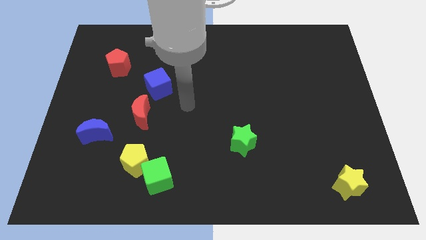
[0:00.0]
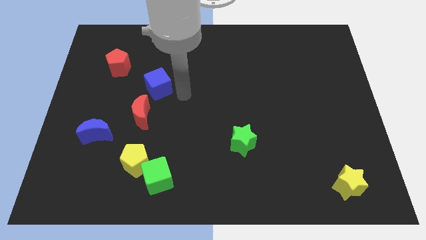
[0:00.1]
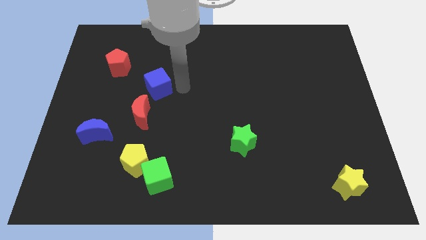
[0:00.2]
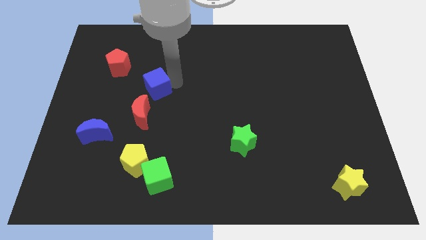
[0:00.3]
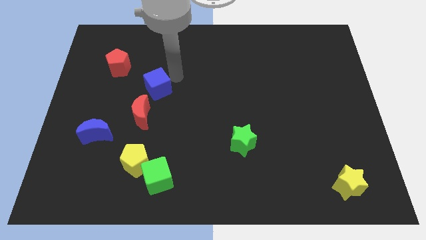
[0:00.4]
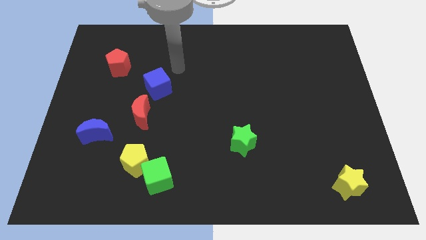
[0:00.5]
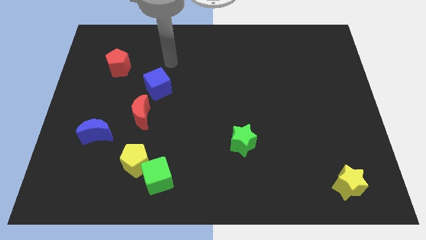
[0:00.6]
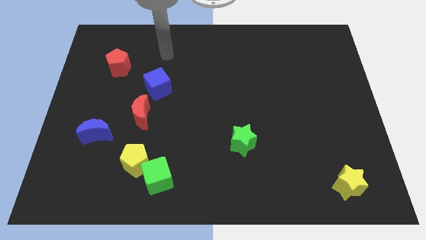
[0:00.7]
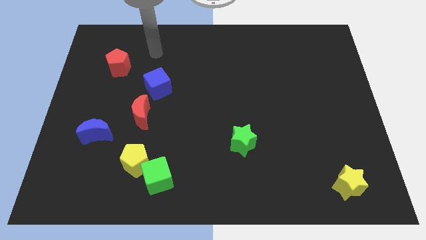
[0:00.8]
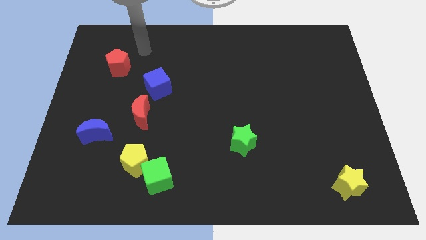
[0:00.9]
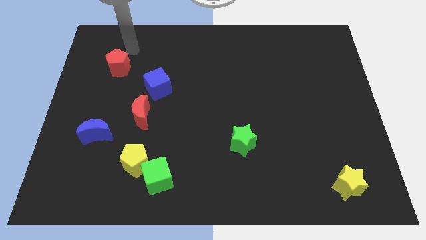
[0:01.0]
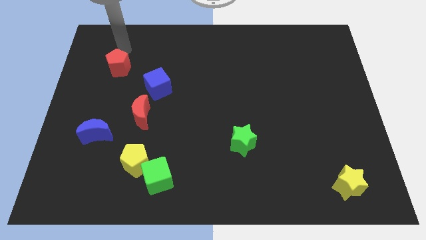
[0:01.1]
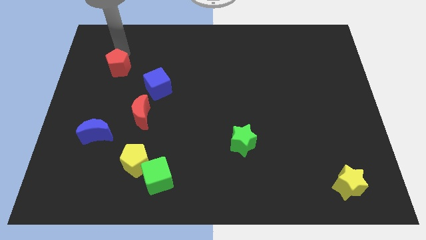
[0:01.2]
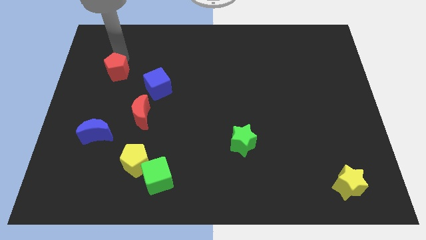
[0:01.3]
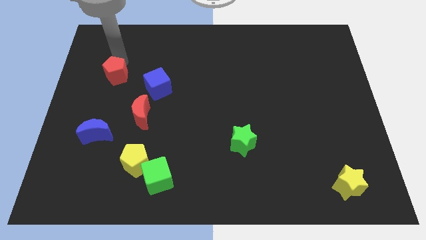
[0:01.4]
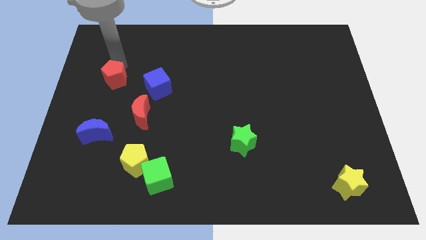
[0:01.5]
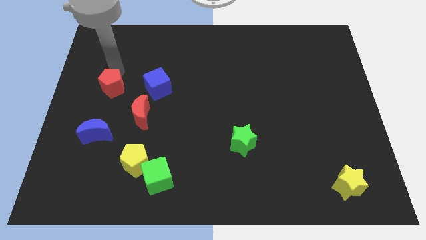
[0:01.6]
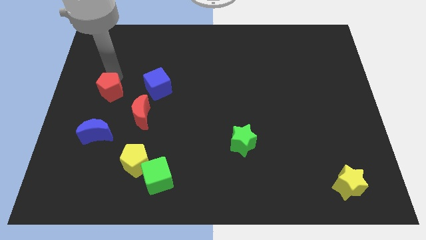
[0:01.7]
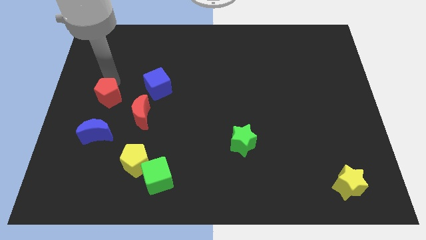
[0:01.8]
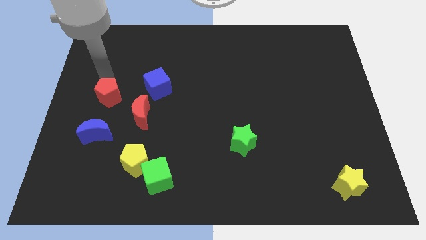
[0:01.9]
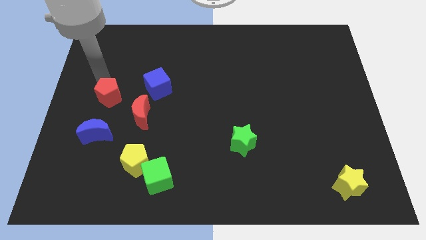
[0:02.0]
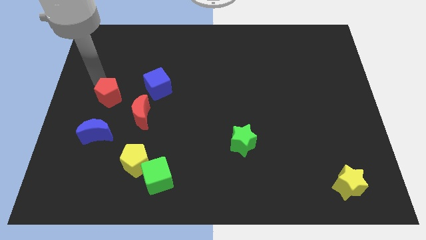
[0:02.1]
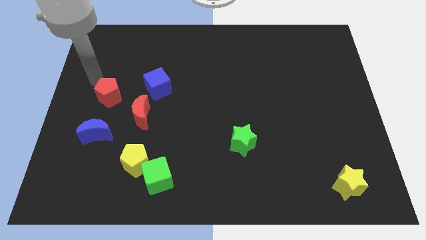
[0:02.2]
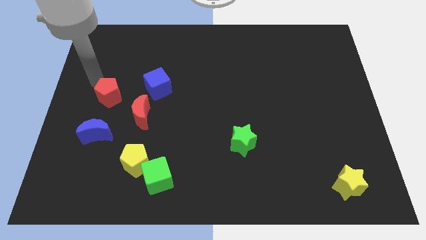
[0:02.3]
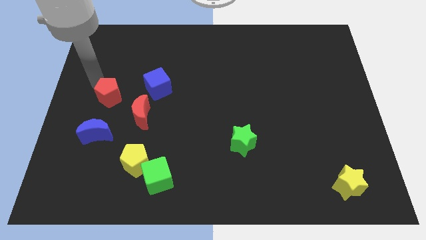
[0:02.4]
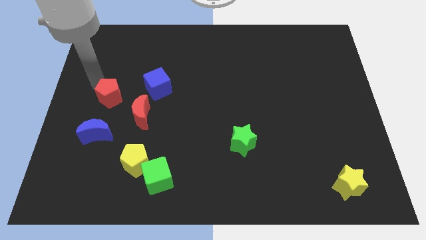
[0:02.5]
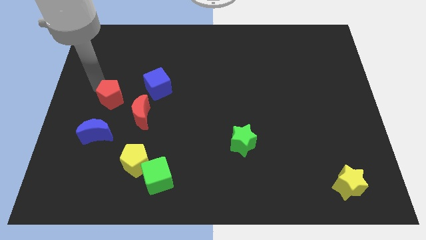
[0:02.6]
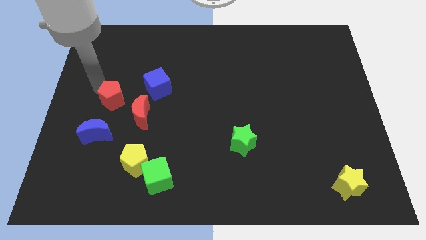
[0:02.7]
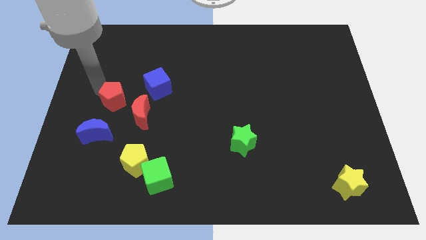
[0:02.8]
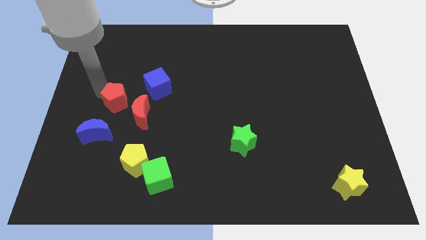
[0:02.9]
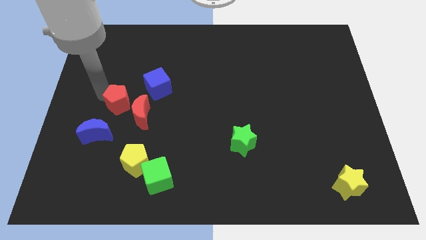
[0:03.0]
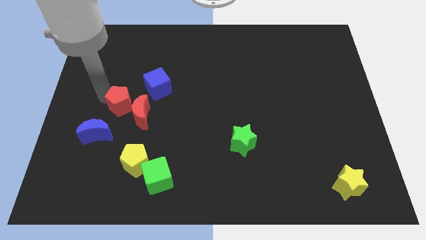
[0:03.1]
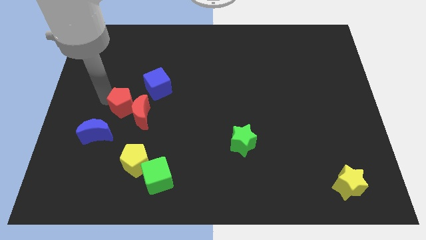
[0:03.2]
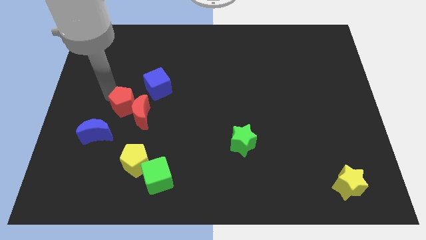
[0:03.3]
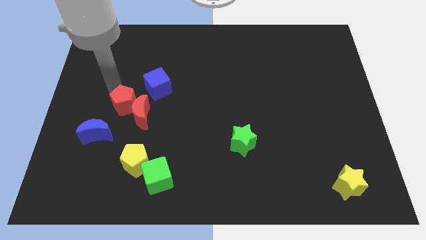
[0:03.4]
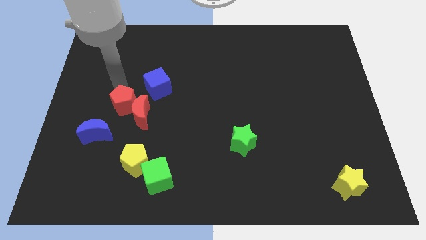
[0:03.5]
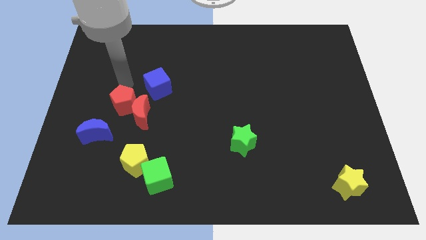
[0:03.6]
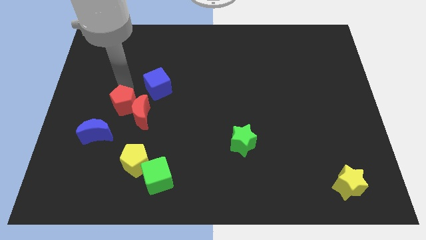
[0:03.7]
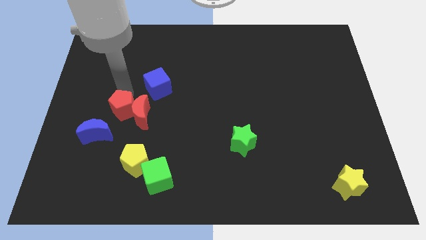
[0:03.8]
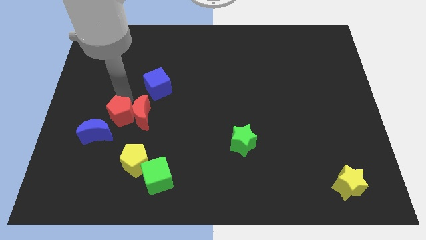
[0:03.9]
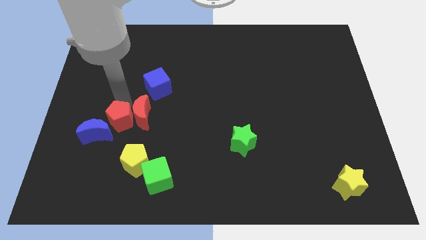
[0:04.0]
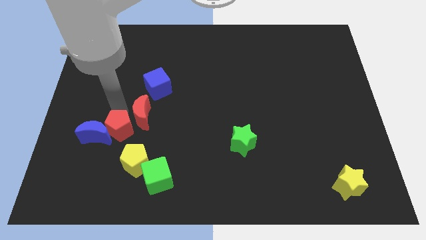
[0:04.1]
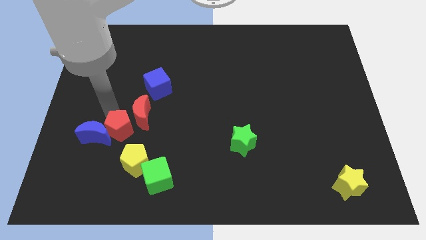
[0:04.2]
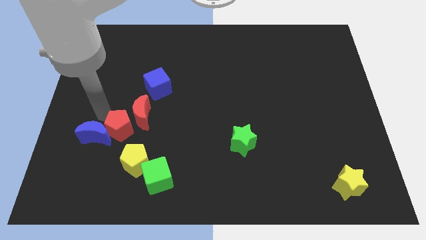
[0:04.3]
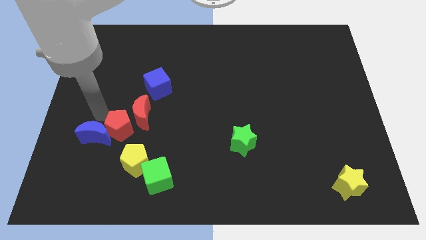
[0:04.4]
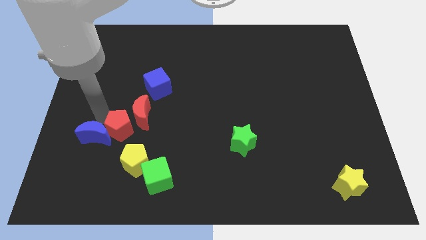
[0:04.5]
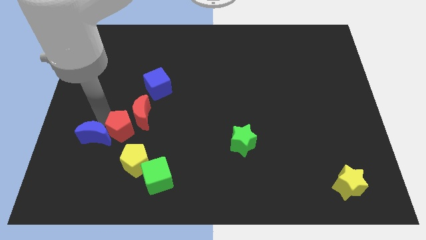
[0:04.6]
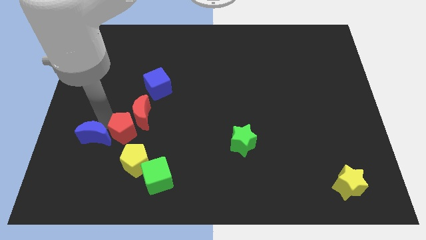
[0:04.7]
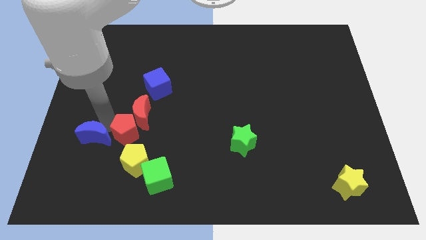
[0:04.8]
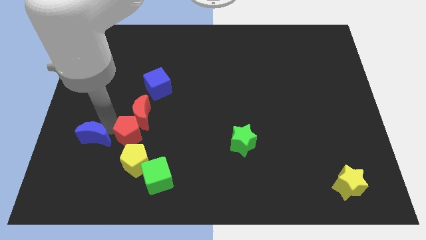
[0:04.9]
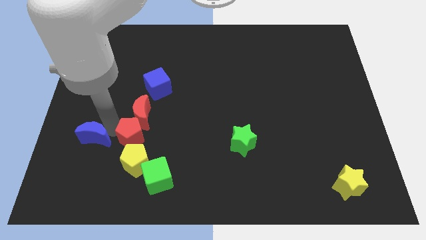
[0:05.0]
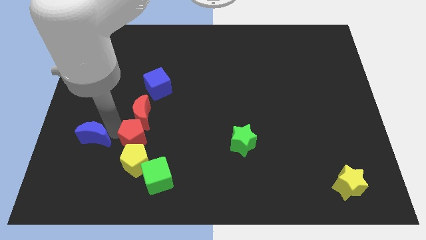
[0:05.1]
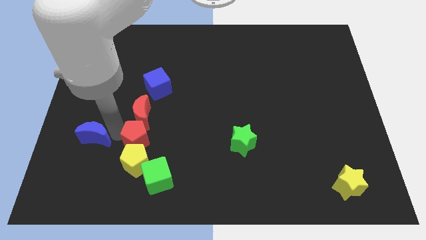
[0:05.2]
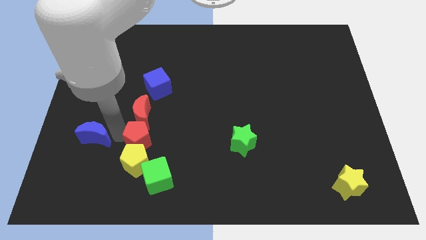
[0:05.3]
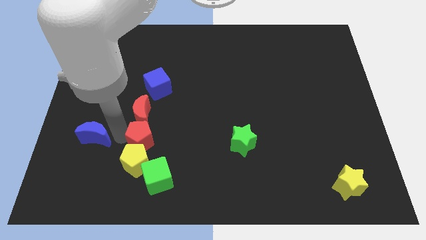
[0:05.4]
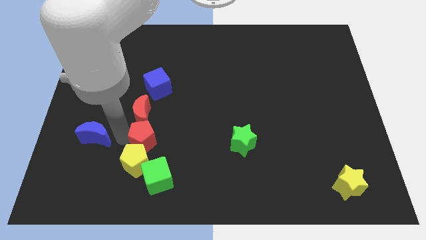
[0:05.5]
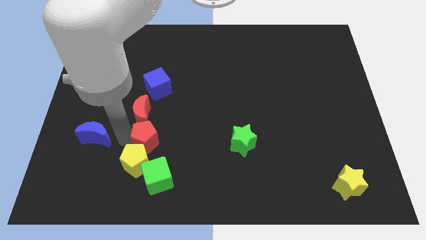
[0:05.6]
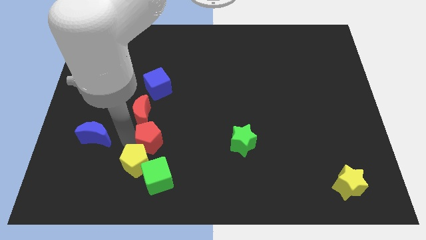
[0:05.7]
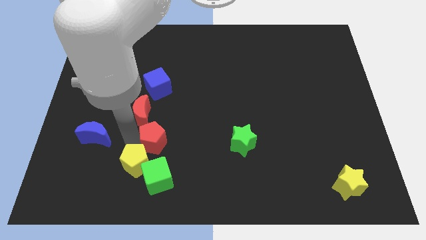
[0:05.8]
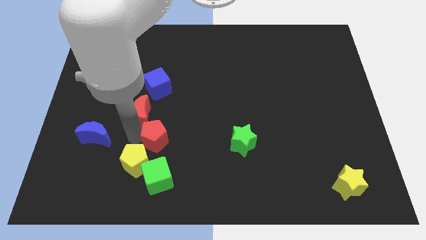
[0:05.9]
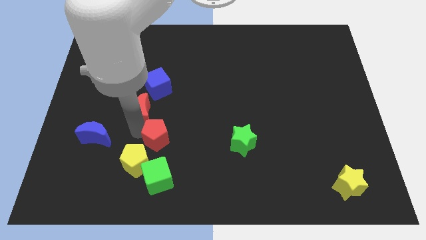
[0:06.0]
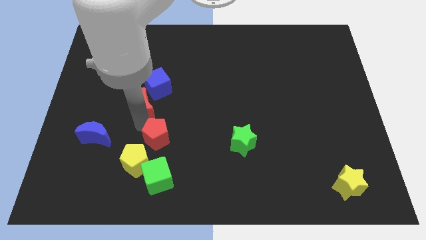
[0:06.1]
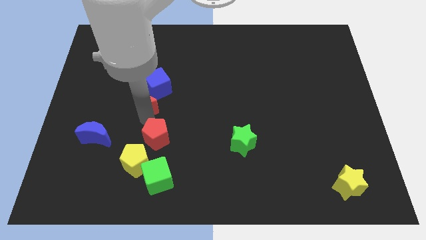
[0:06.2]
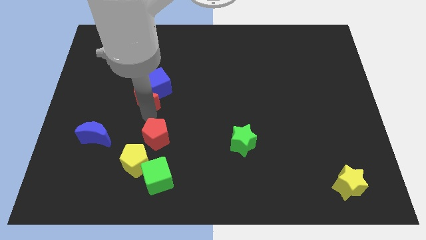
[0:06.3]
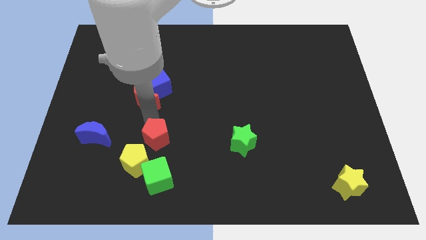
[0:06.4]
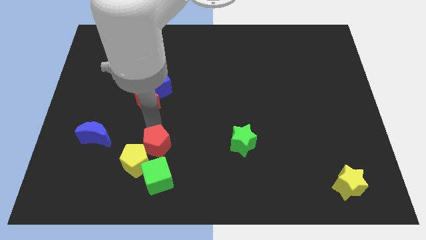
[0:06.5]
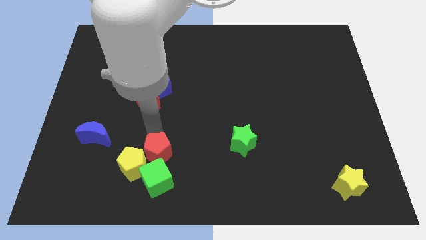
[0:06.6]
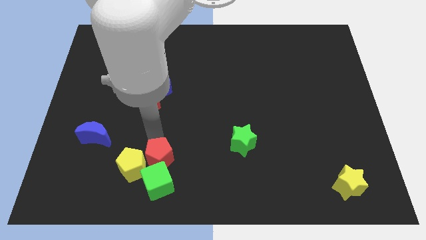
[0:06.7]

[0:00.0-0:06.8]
move the red pentagon towards the green cube

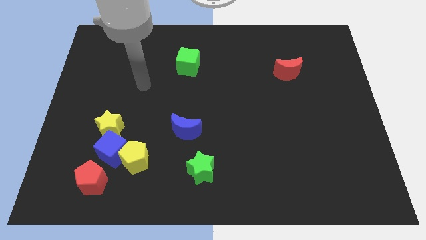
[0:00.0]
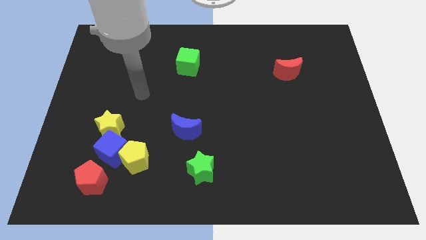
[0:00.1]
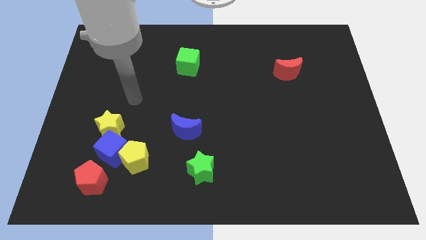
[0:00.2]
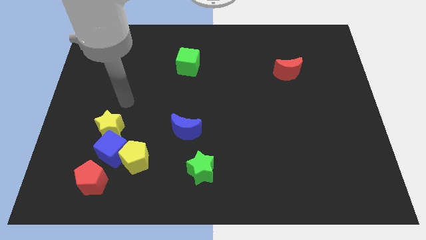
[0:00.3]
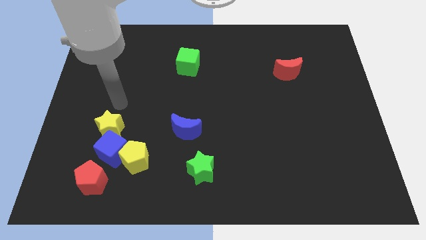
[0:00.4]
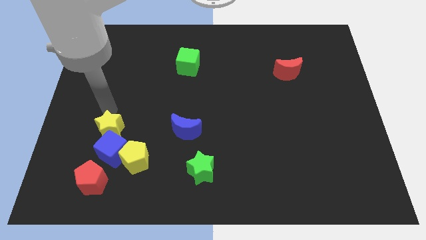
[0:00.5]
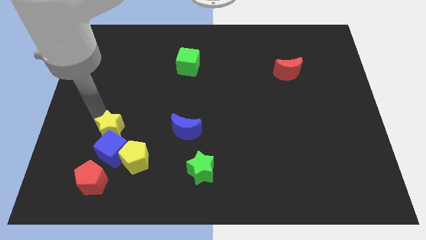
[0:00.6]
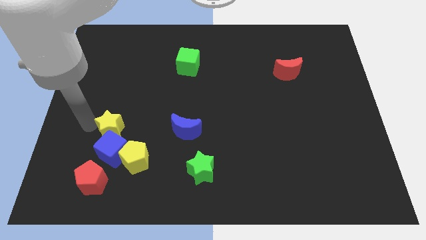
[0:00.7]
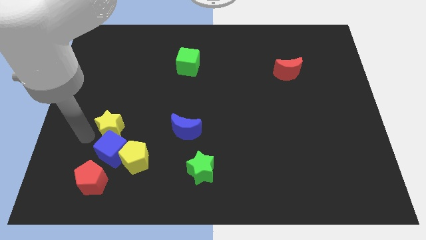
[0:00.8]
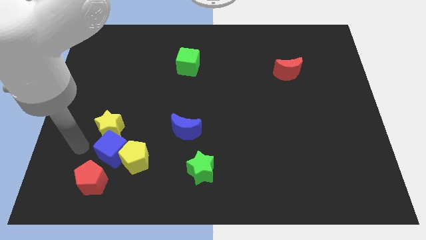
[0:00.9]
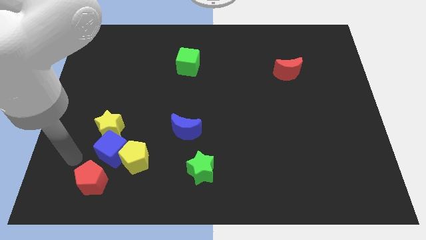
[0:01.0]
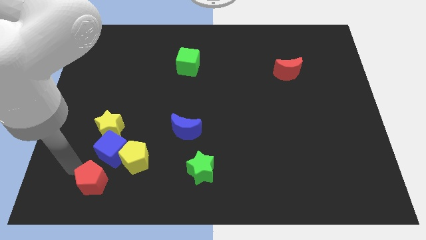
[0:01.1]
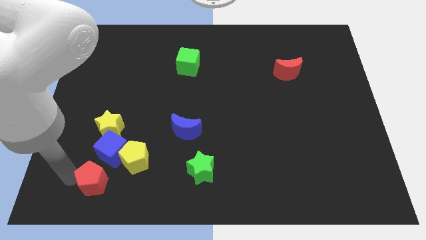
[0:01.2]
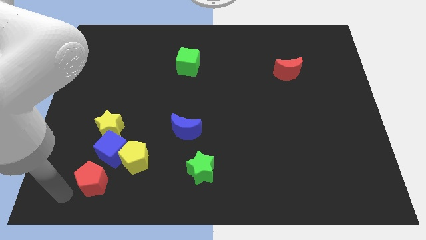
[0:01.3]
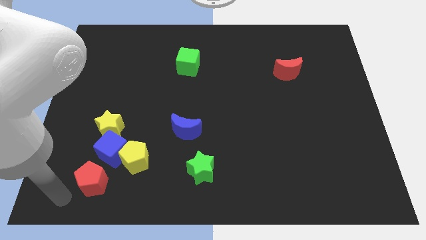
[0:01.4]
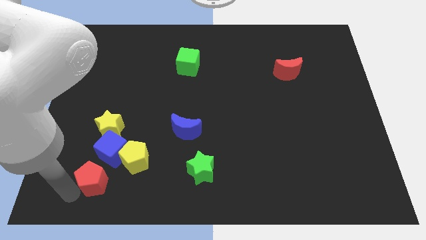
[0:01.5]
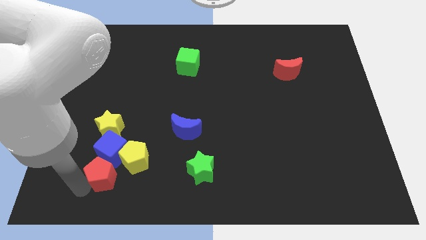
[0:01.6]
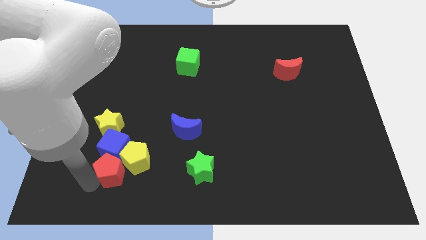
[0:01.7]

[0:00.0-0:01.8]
push the red pentagon to the yellow pentagon
